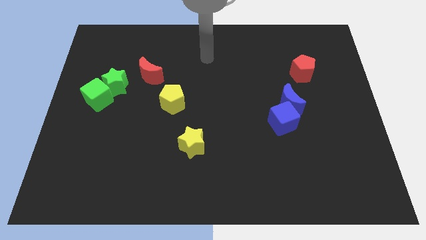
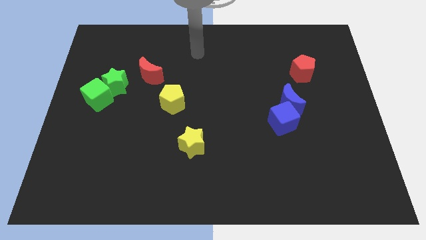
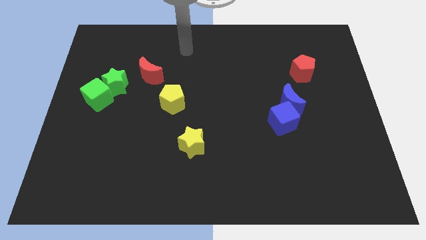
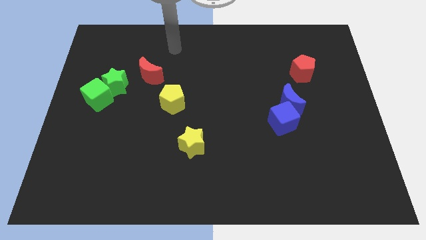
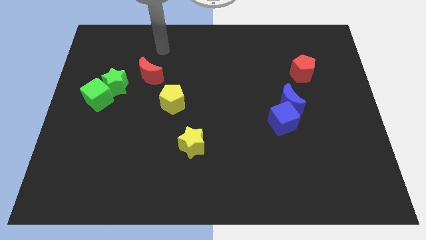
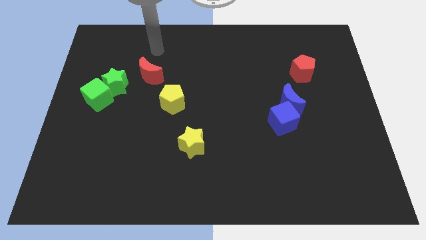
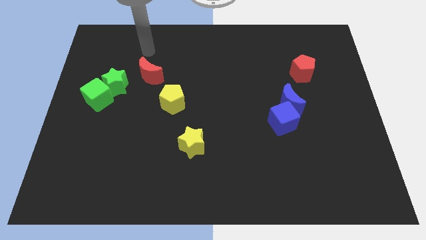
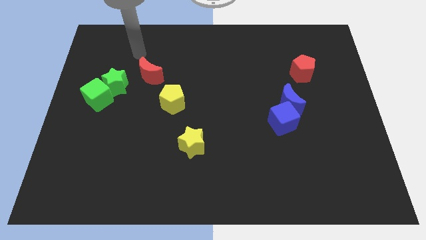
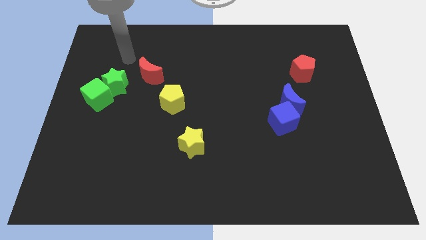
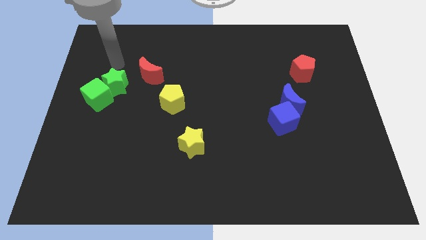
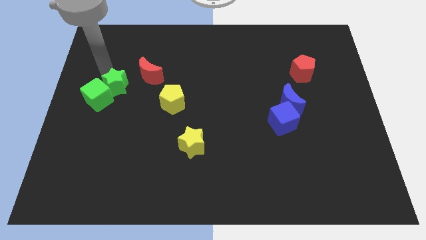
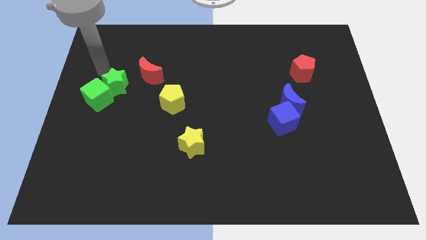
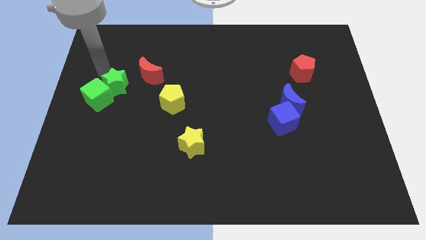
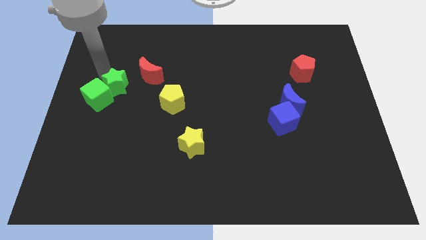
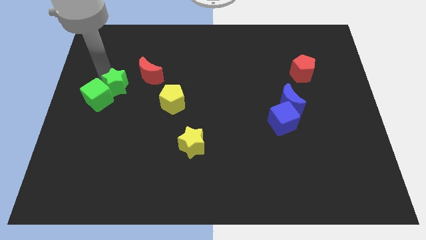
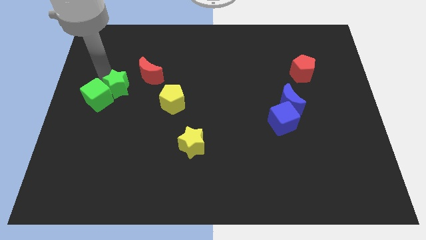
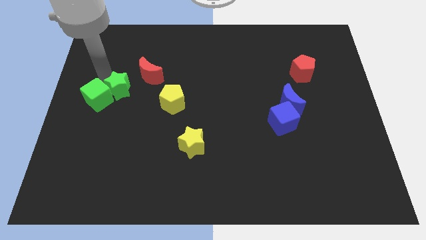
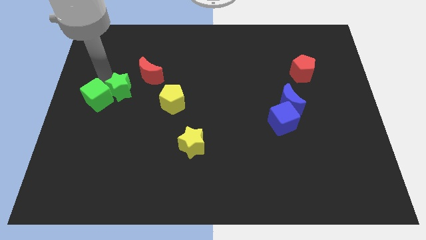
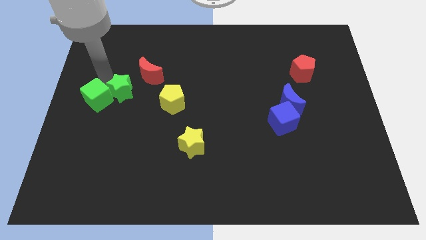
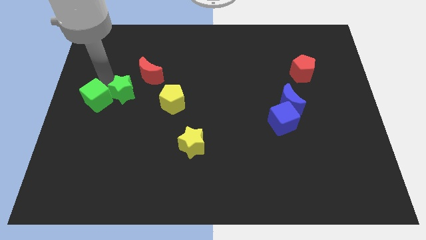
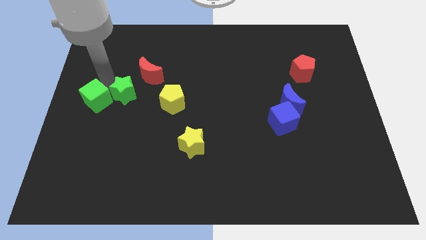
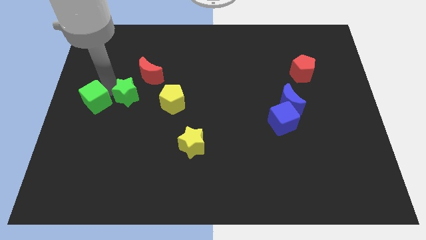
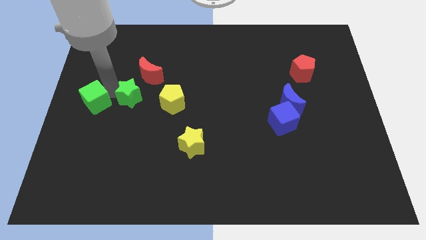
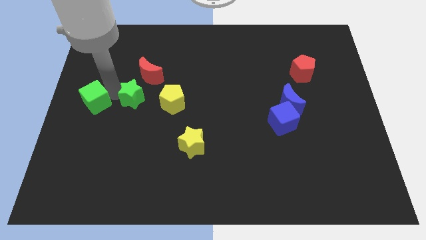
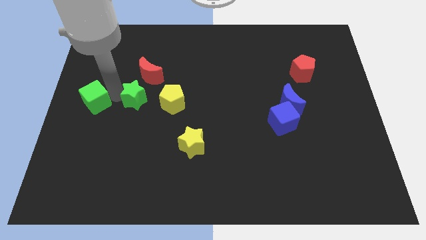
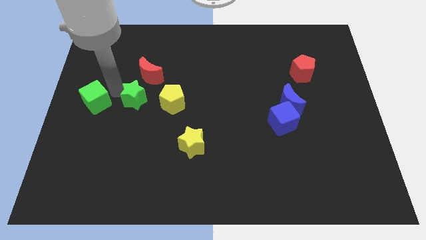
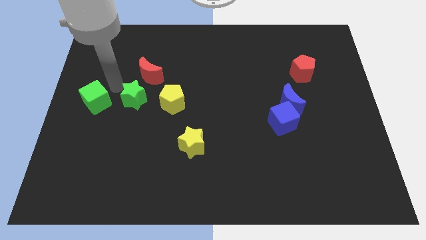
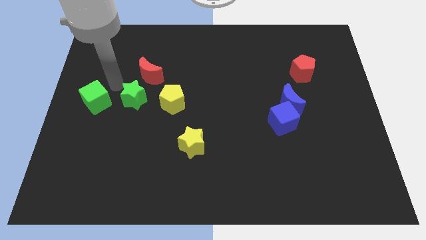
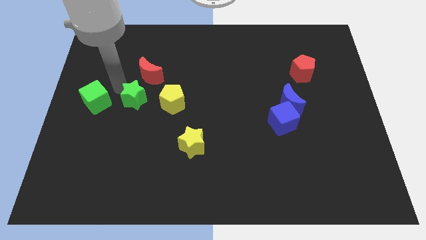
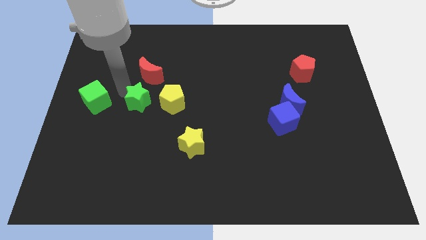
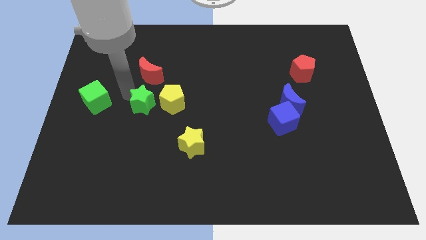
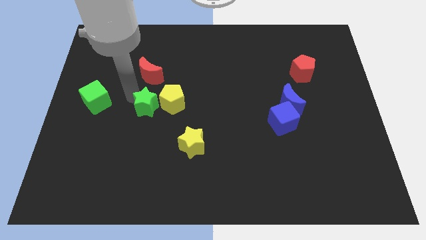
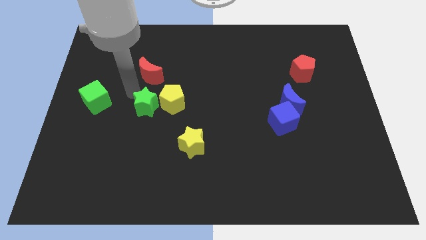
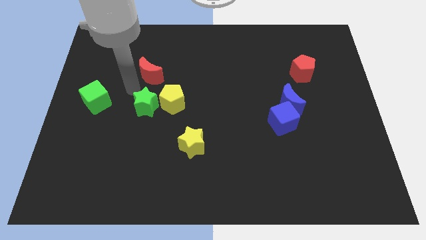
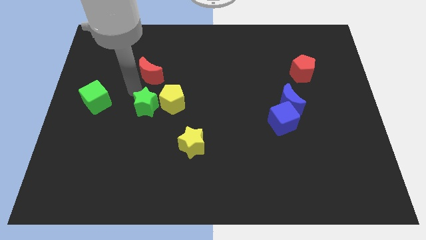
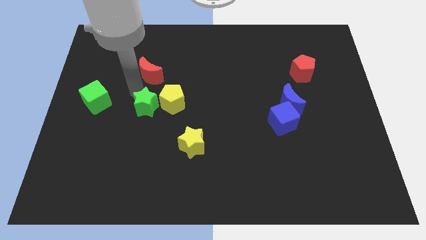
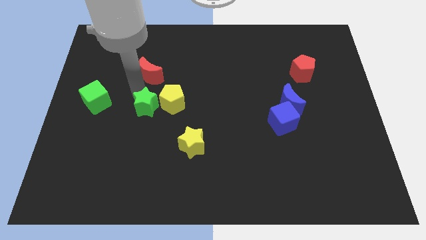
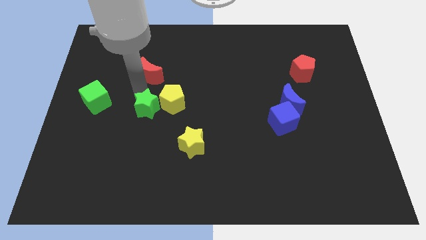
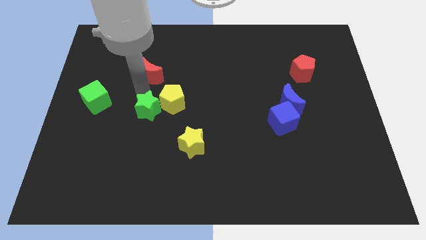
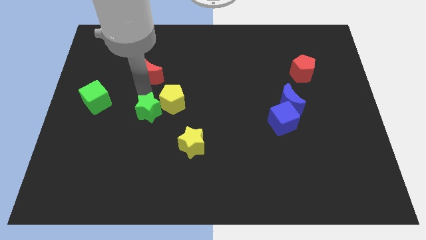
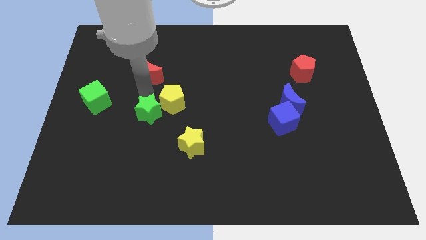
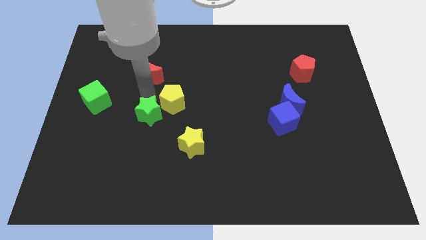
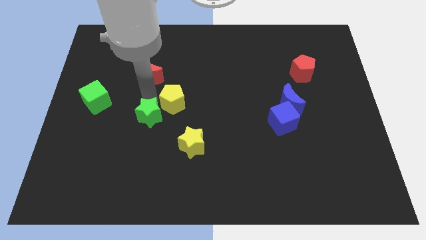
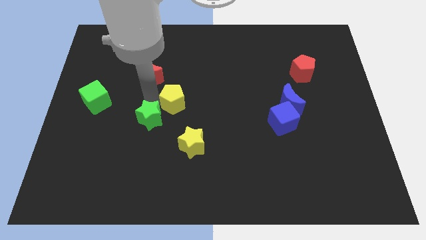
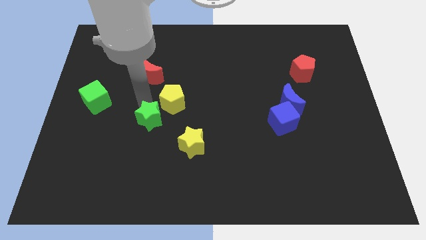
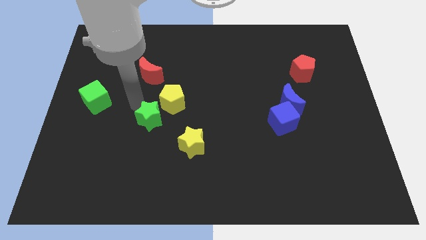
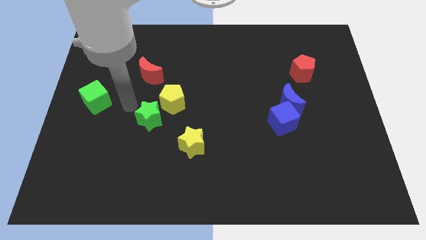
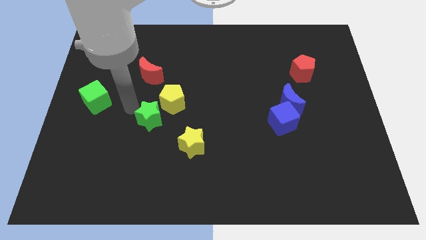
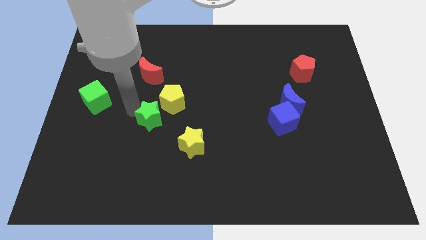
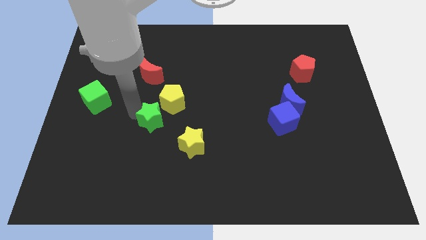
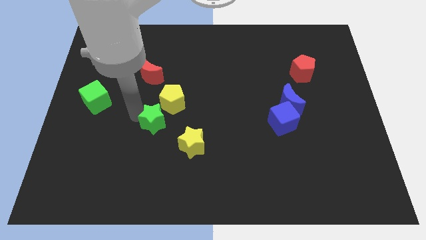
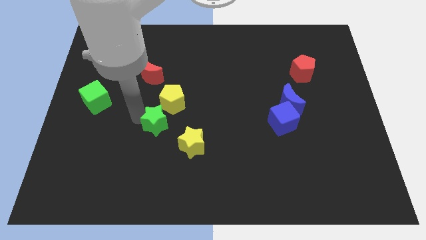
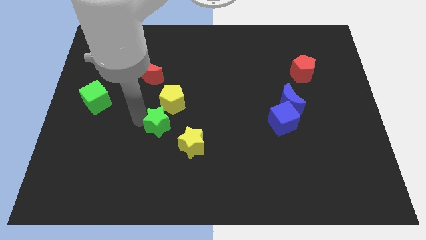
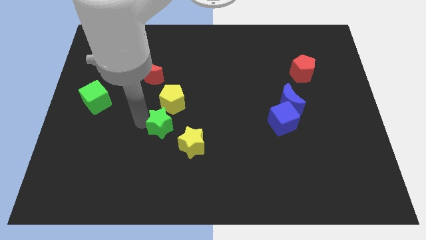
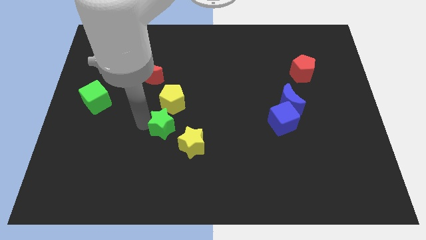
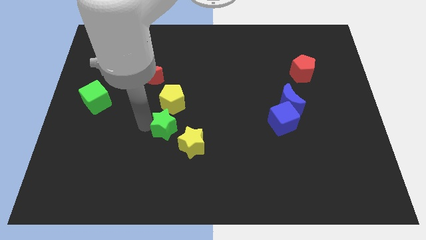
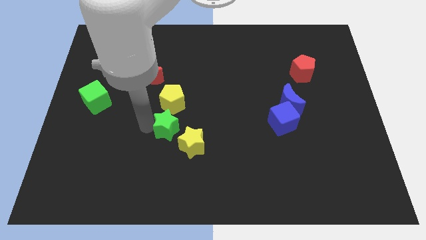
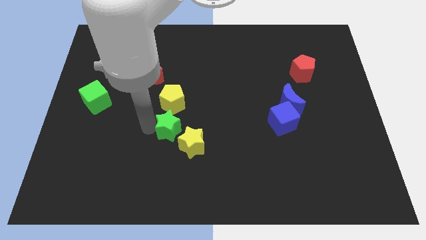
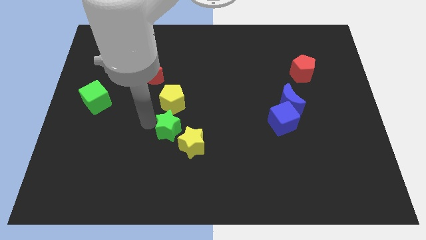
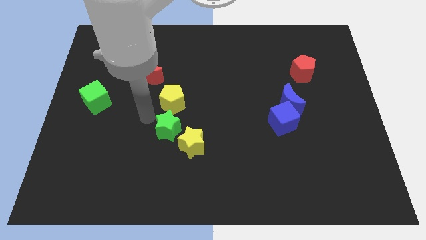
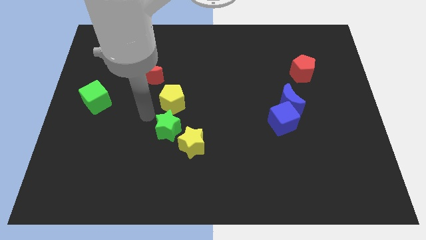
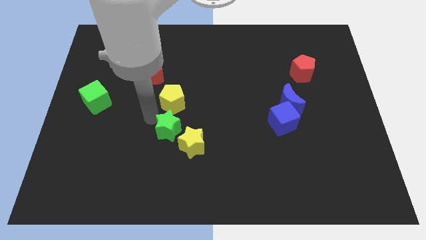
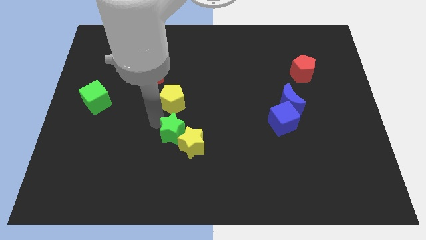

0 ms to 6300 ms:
move the green star close to the yellow star
